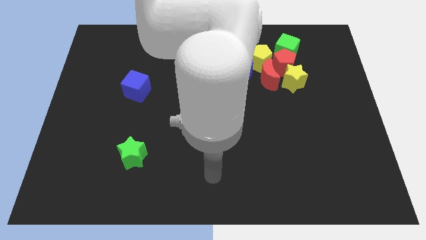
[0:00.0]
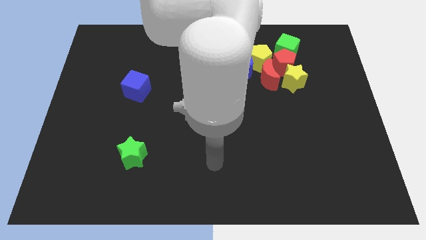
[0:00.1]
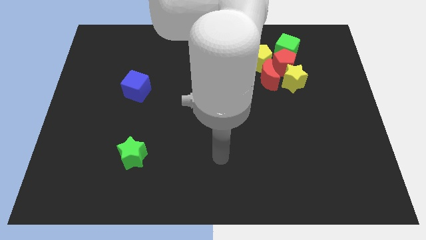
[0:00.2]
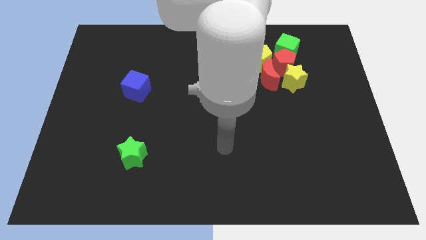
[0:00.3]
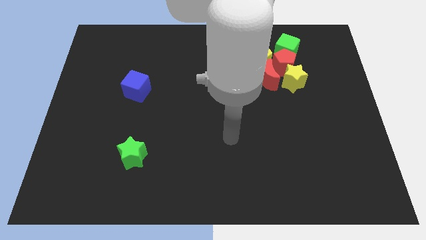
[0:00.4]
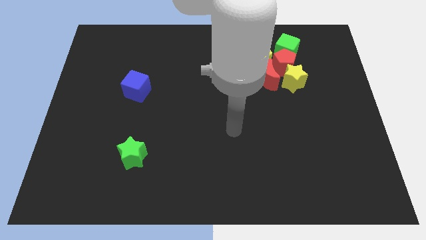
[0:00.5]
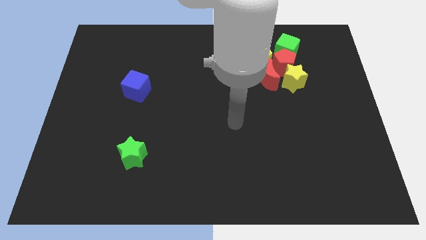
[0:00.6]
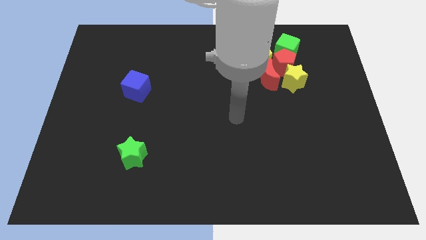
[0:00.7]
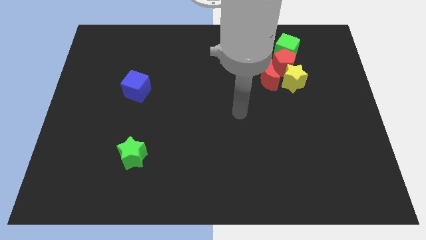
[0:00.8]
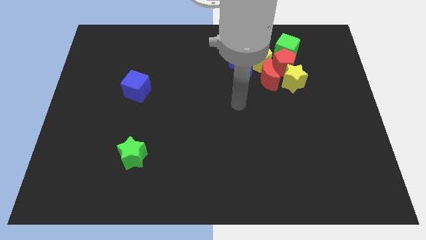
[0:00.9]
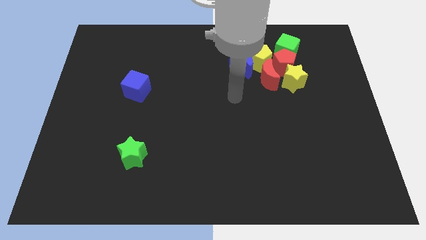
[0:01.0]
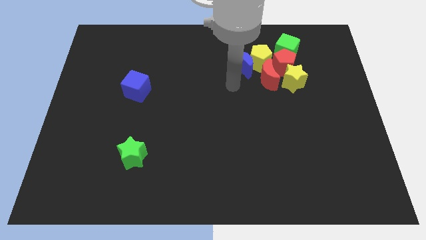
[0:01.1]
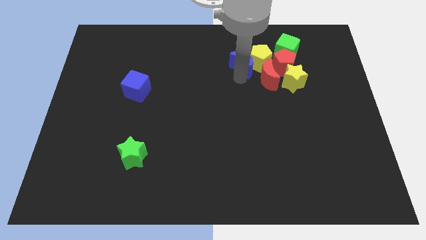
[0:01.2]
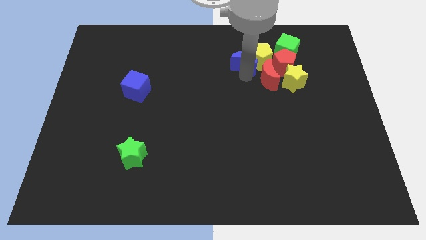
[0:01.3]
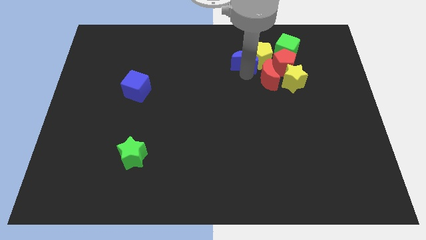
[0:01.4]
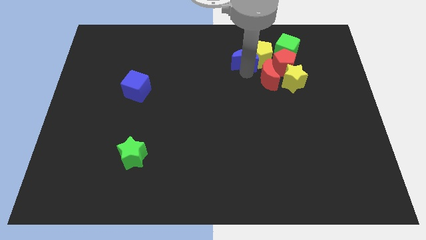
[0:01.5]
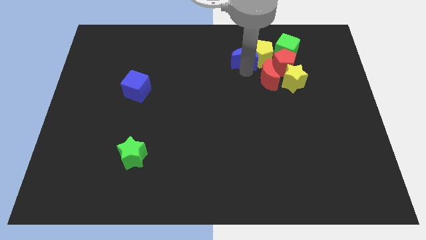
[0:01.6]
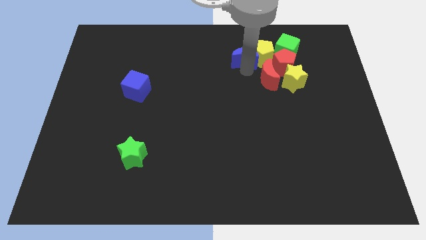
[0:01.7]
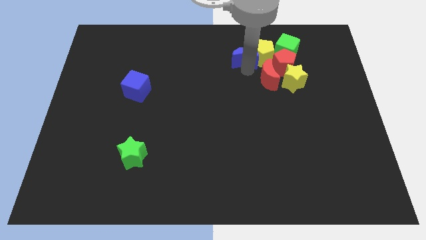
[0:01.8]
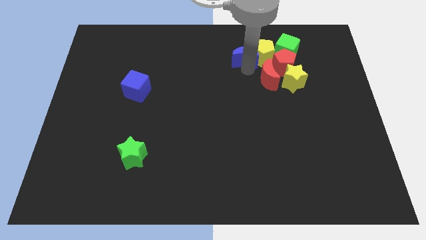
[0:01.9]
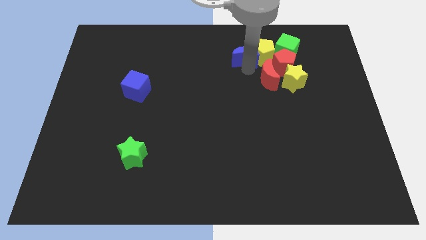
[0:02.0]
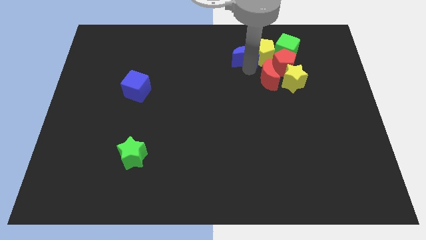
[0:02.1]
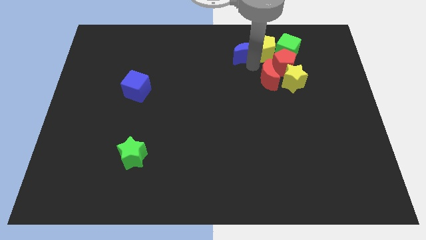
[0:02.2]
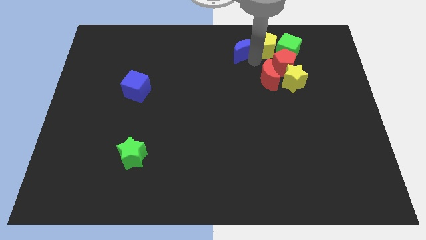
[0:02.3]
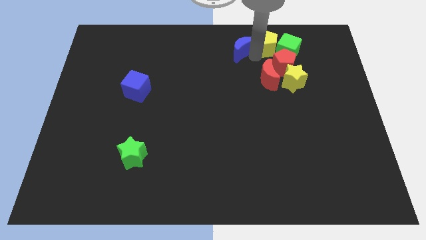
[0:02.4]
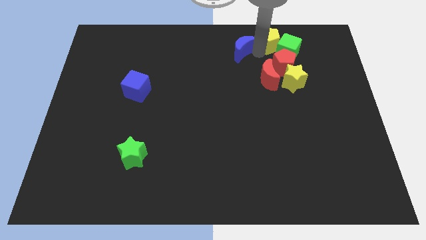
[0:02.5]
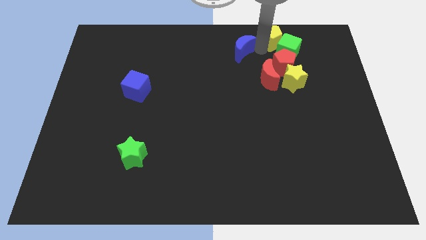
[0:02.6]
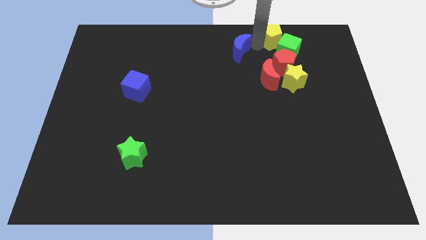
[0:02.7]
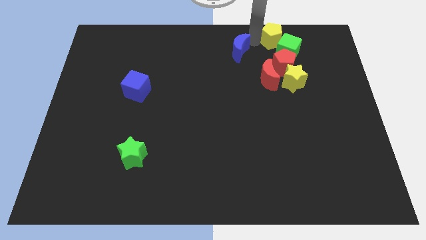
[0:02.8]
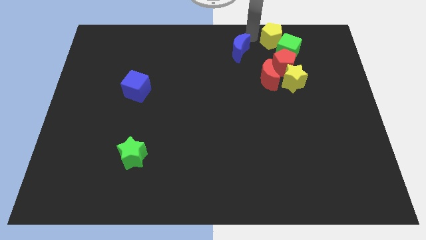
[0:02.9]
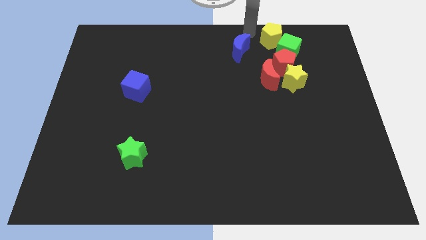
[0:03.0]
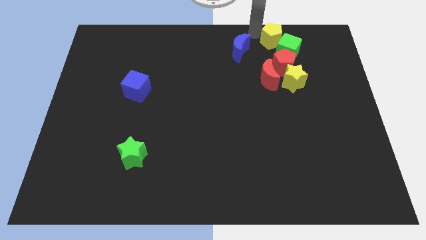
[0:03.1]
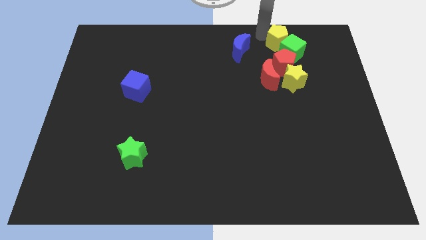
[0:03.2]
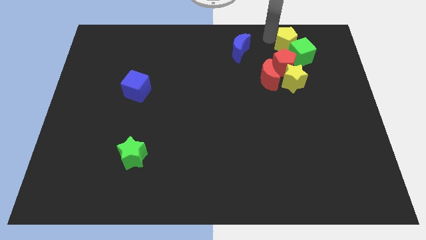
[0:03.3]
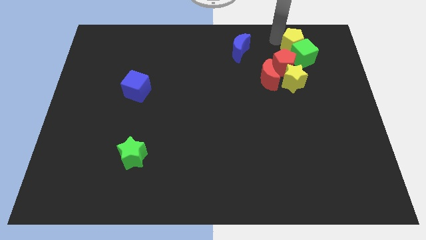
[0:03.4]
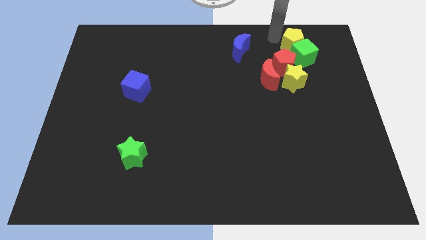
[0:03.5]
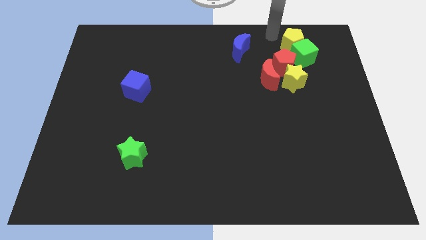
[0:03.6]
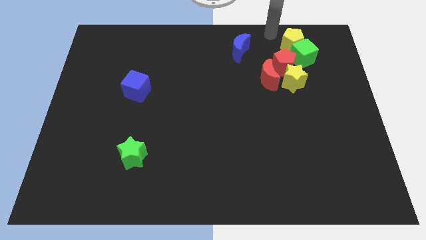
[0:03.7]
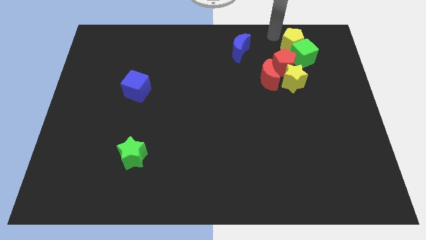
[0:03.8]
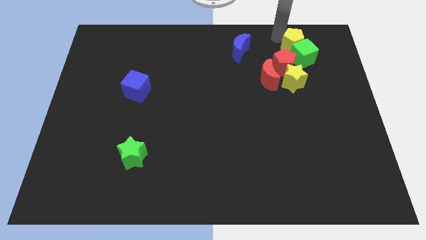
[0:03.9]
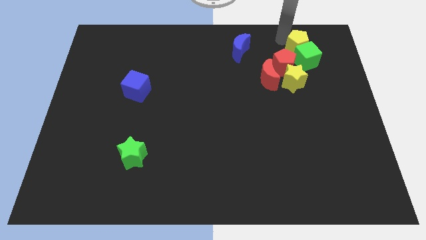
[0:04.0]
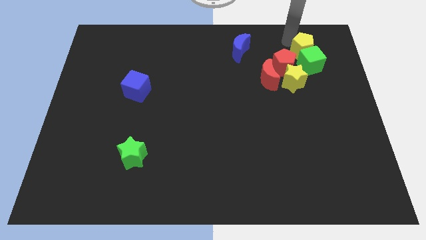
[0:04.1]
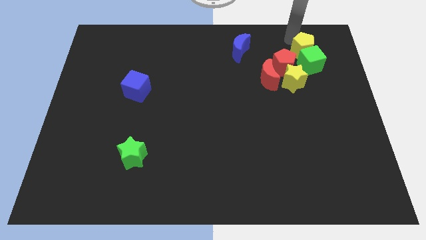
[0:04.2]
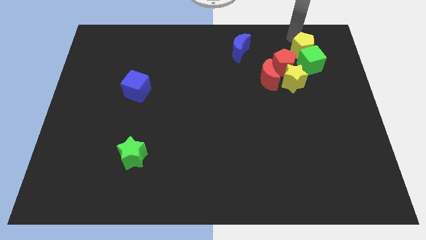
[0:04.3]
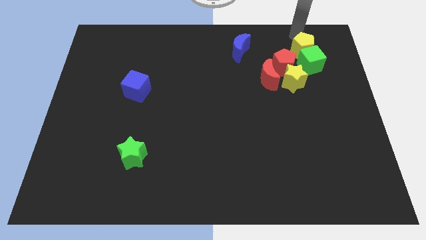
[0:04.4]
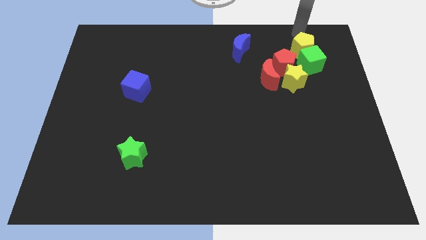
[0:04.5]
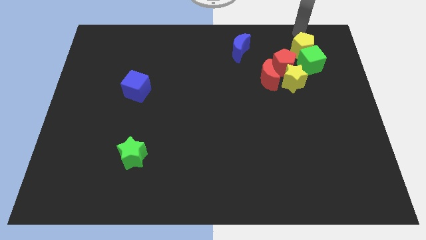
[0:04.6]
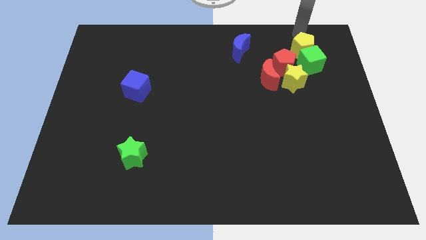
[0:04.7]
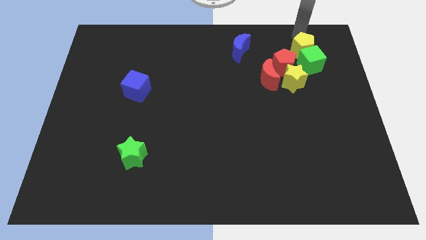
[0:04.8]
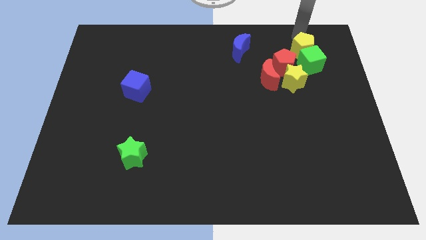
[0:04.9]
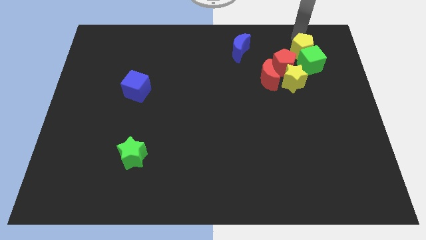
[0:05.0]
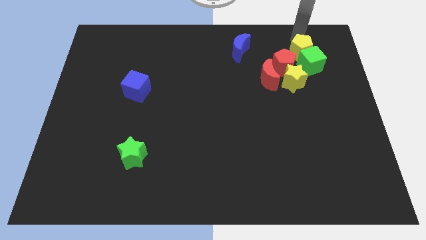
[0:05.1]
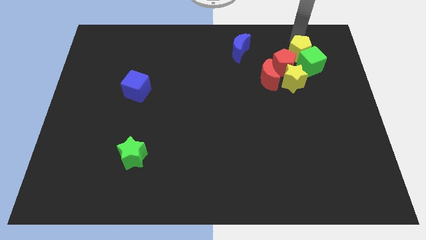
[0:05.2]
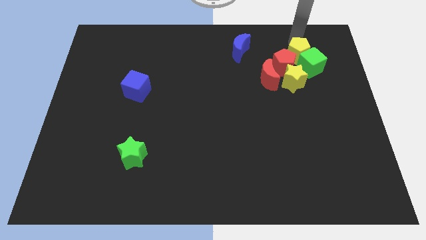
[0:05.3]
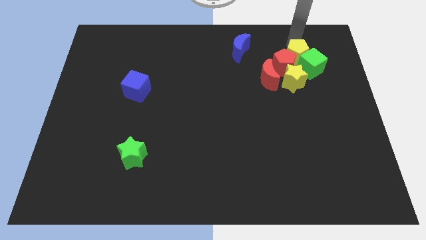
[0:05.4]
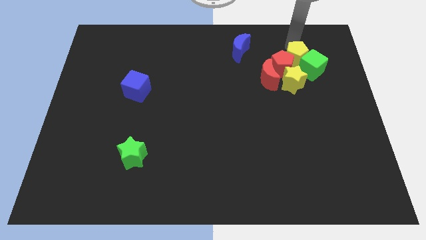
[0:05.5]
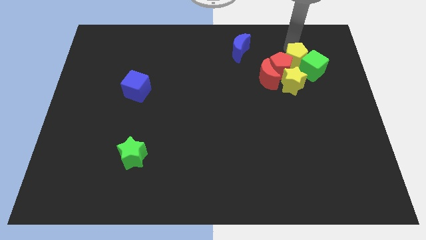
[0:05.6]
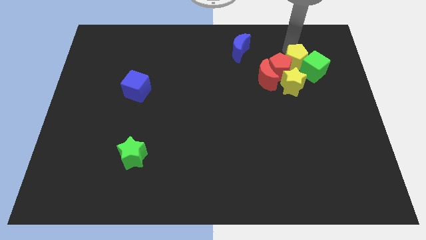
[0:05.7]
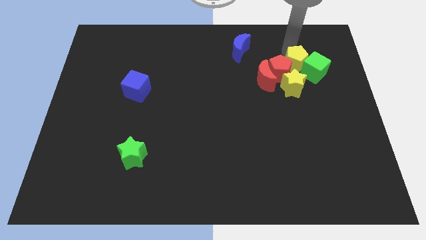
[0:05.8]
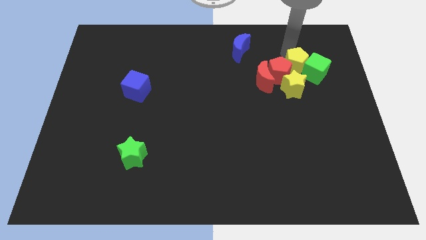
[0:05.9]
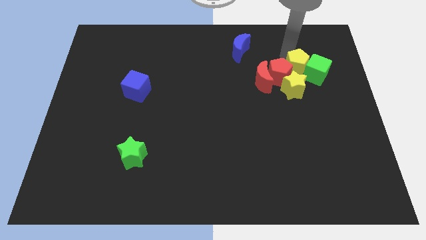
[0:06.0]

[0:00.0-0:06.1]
slightly slide the yellow pentagon down and then right

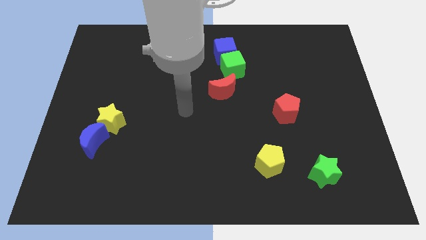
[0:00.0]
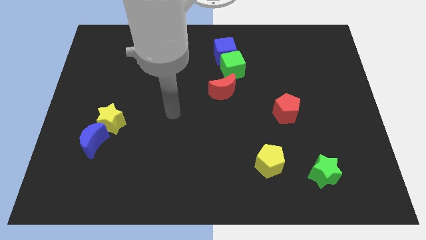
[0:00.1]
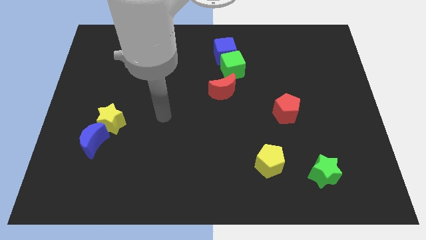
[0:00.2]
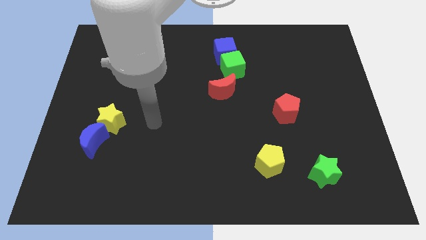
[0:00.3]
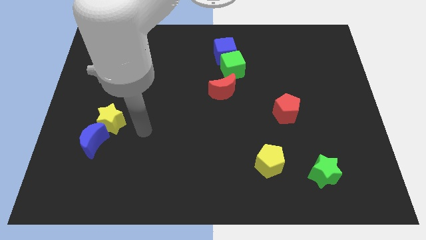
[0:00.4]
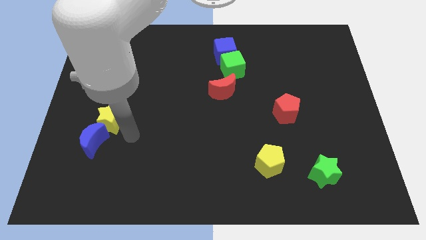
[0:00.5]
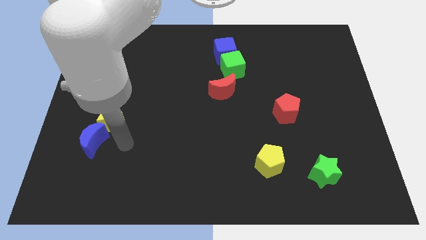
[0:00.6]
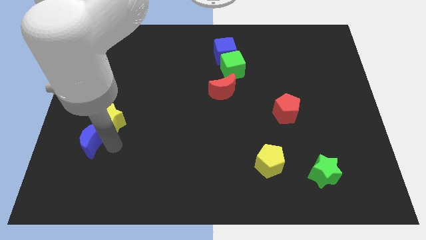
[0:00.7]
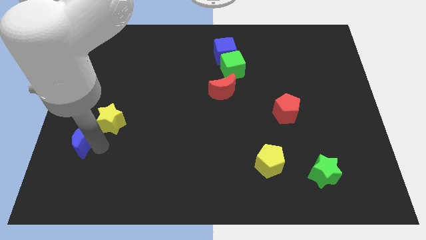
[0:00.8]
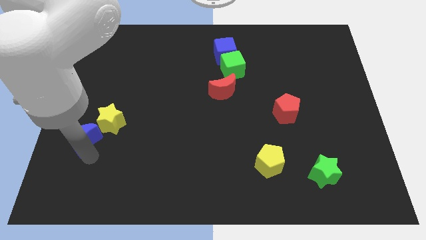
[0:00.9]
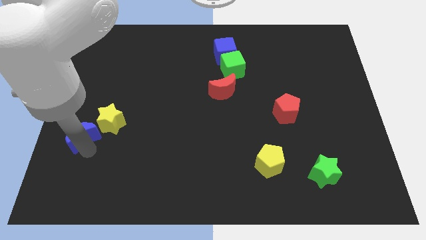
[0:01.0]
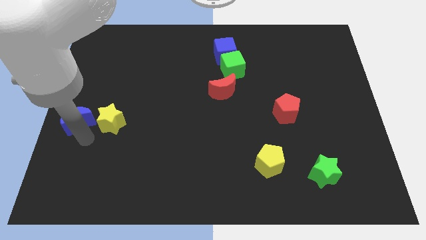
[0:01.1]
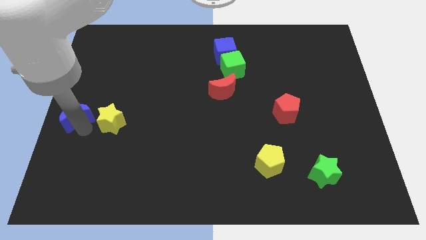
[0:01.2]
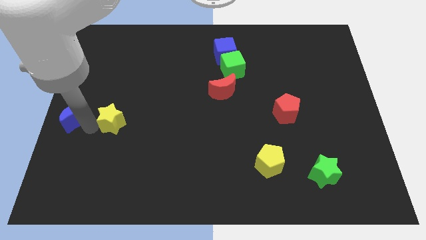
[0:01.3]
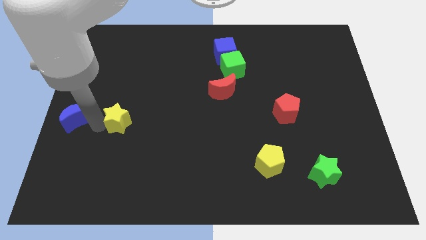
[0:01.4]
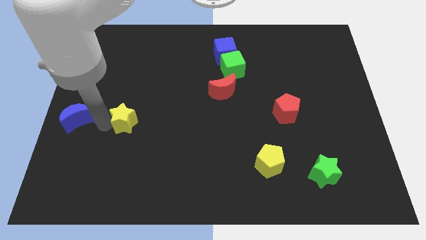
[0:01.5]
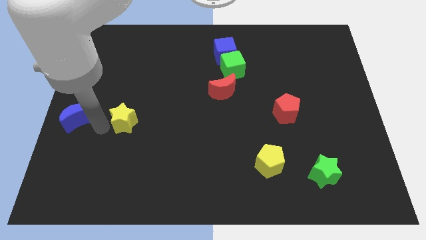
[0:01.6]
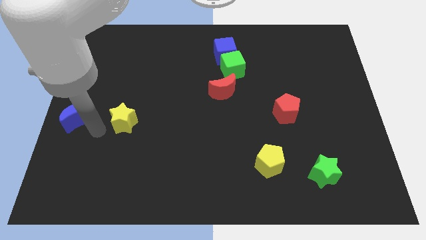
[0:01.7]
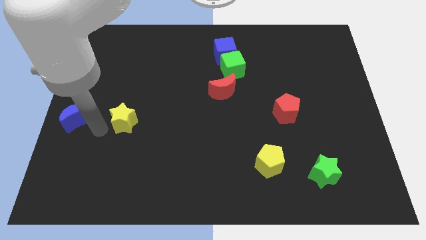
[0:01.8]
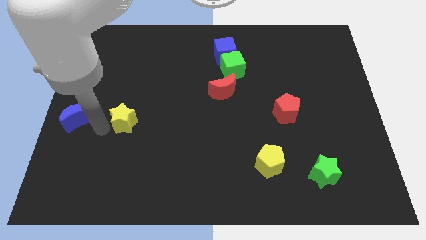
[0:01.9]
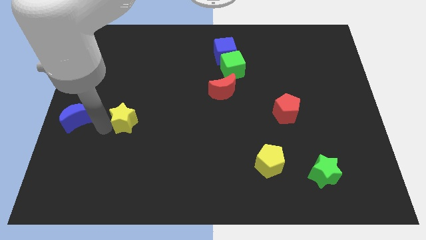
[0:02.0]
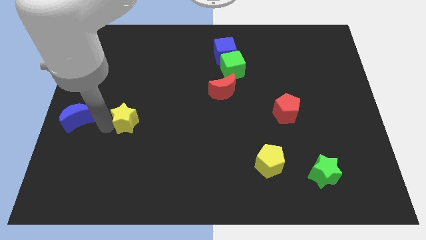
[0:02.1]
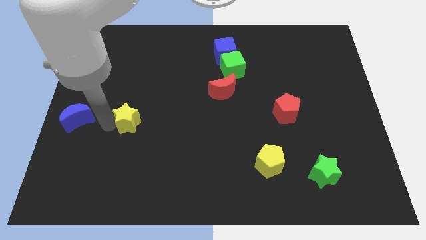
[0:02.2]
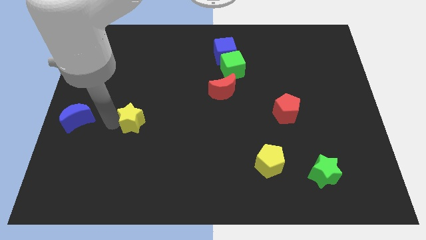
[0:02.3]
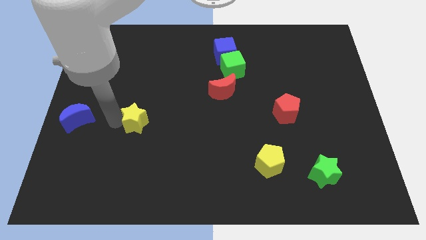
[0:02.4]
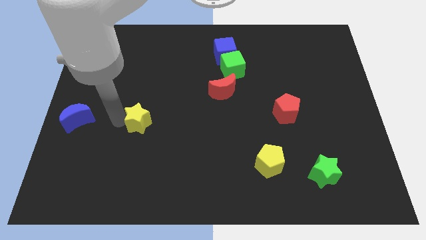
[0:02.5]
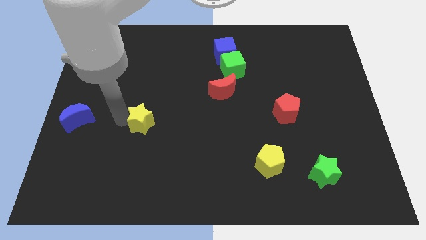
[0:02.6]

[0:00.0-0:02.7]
push the yellow star a bit to the right
